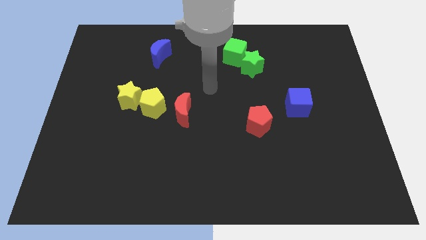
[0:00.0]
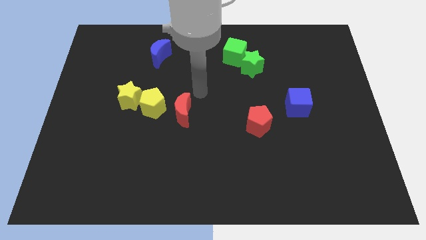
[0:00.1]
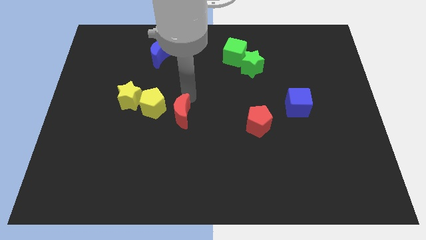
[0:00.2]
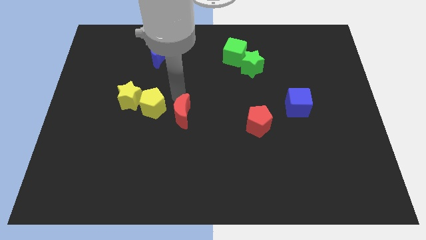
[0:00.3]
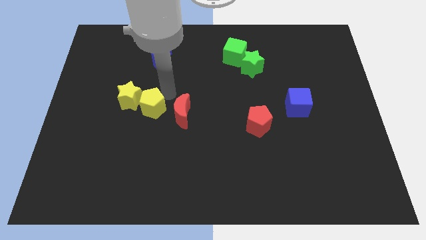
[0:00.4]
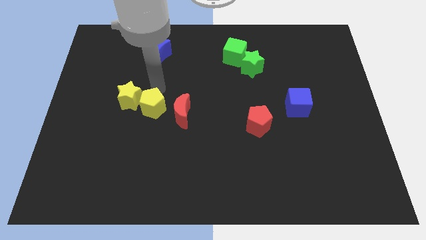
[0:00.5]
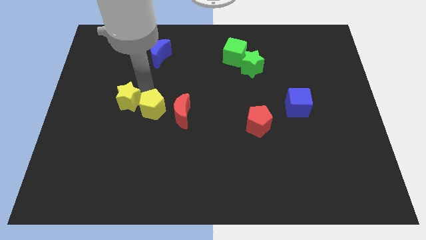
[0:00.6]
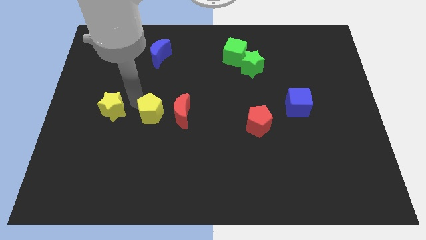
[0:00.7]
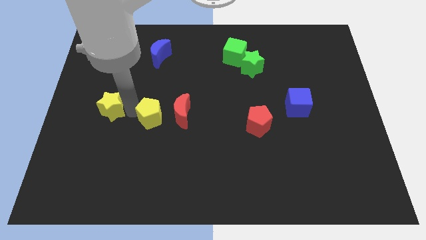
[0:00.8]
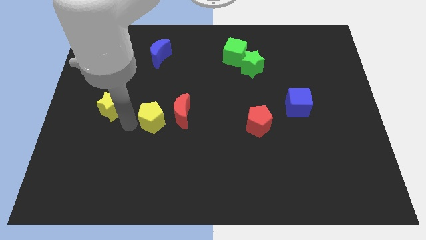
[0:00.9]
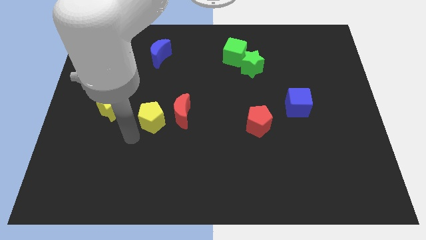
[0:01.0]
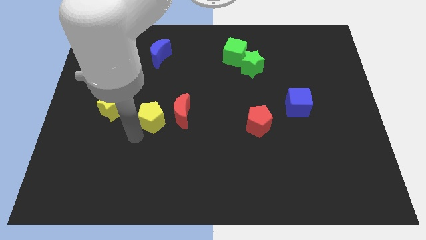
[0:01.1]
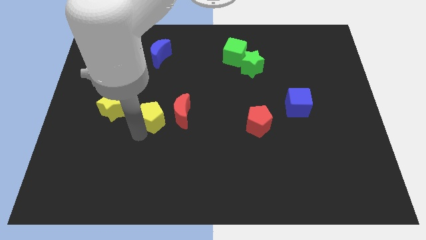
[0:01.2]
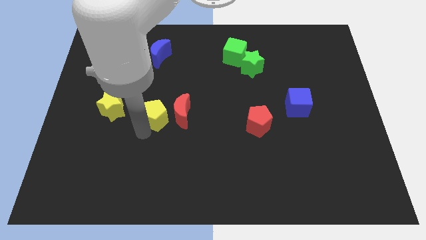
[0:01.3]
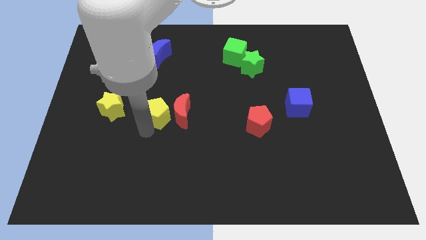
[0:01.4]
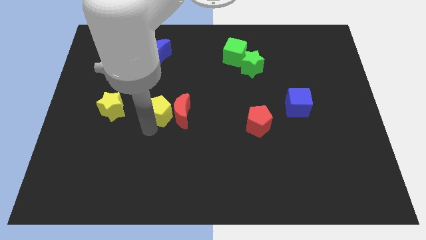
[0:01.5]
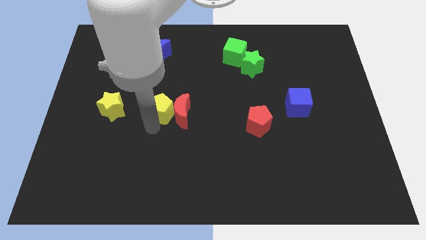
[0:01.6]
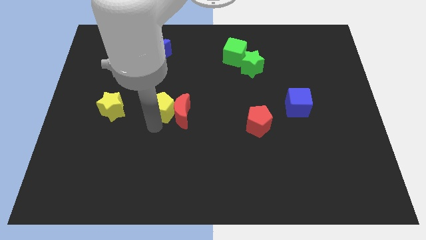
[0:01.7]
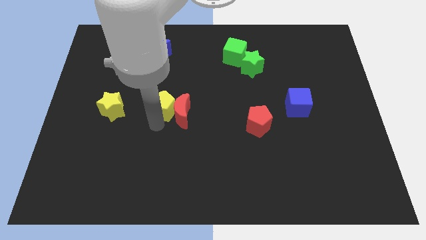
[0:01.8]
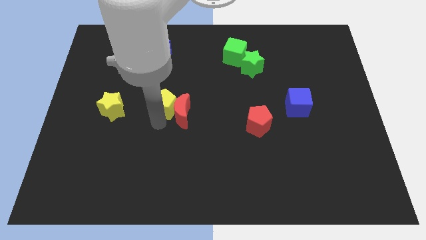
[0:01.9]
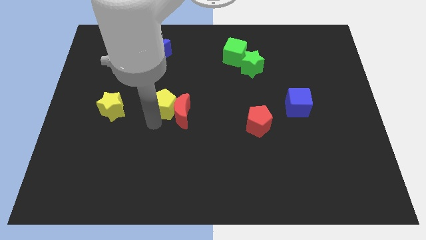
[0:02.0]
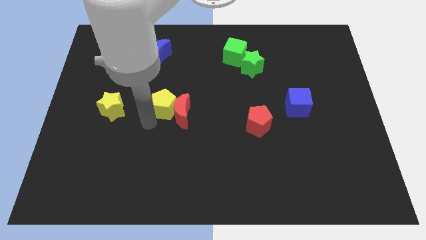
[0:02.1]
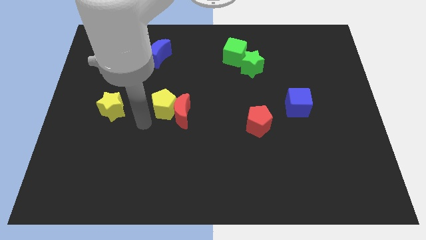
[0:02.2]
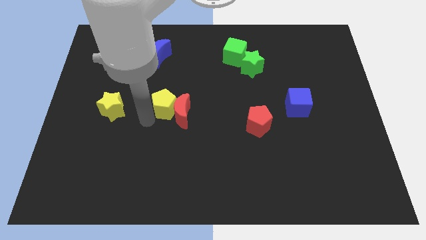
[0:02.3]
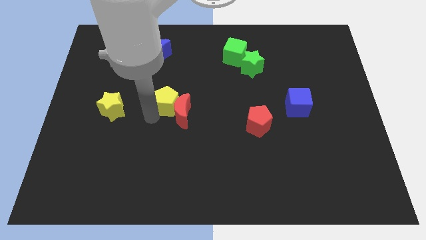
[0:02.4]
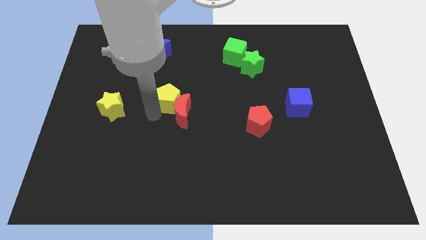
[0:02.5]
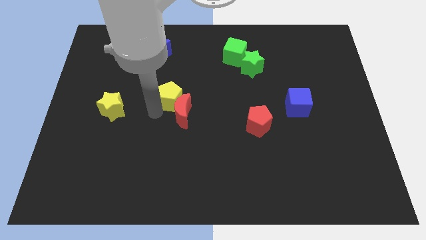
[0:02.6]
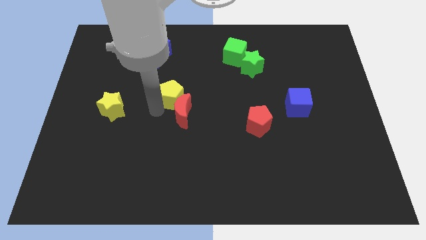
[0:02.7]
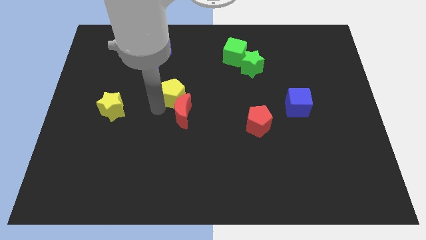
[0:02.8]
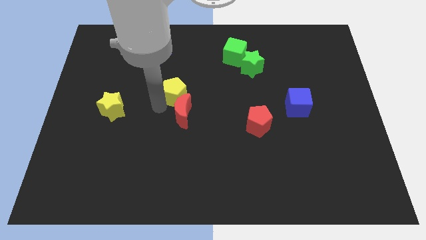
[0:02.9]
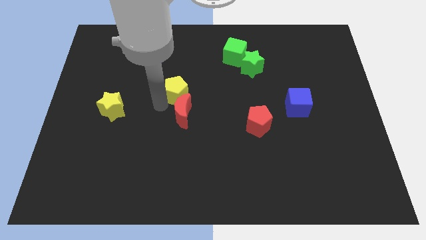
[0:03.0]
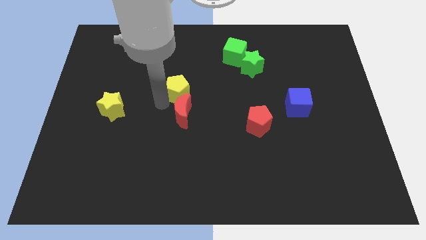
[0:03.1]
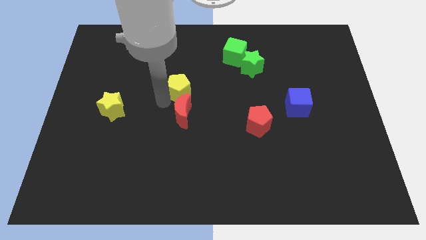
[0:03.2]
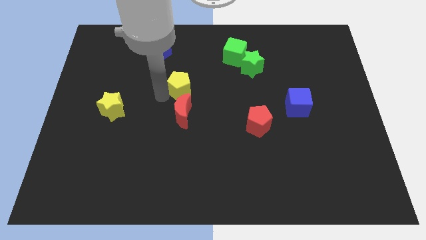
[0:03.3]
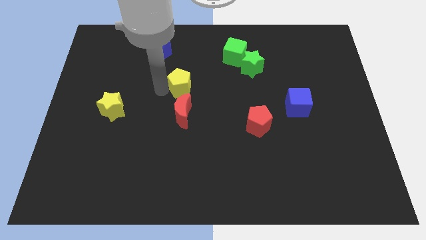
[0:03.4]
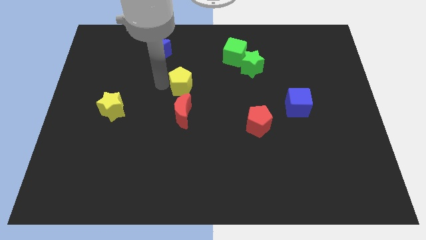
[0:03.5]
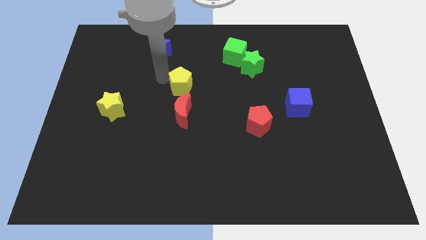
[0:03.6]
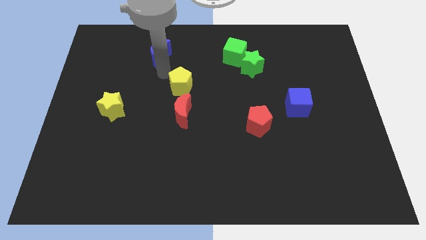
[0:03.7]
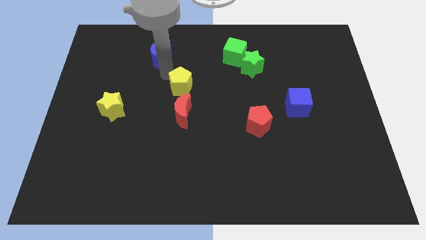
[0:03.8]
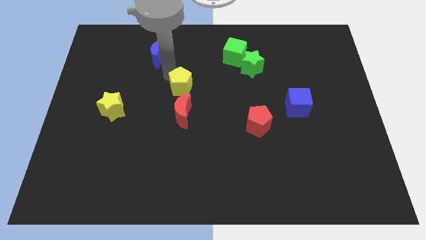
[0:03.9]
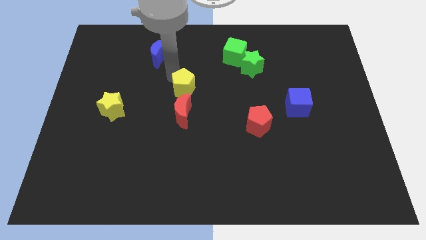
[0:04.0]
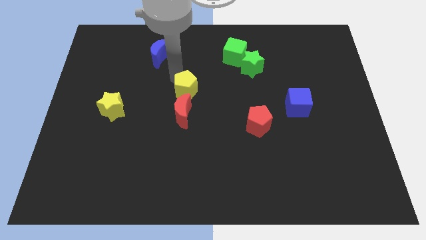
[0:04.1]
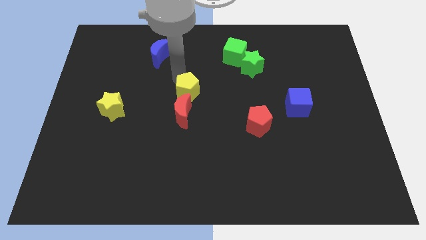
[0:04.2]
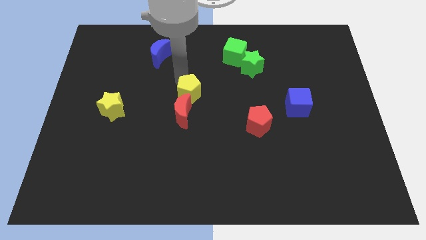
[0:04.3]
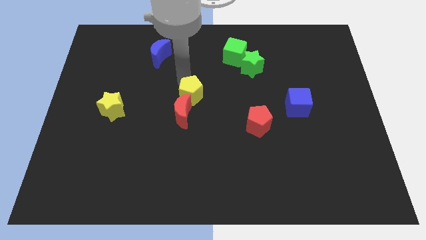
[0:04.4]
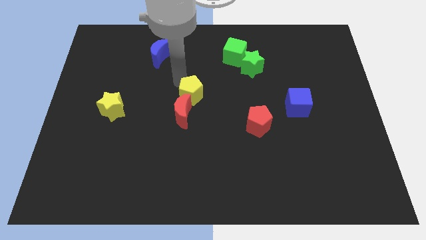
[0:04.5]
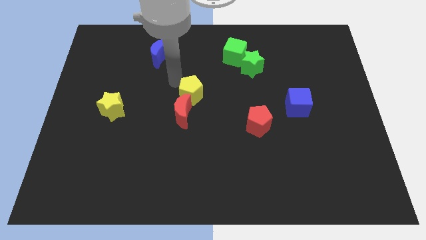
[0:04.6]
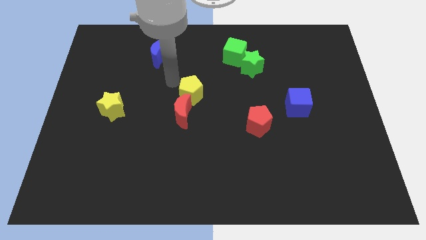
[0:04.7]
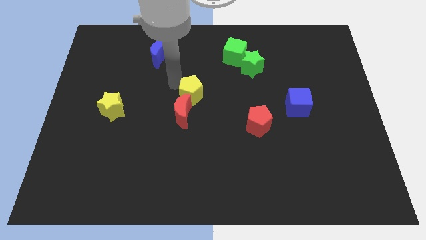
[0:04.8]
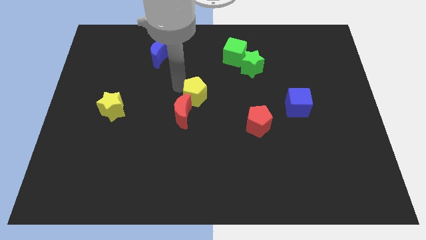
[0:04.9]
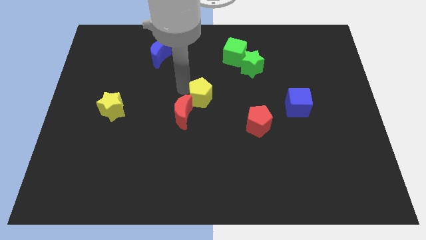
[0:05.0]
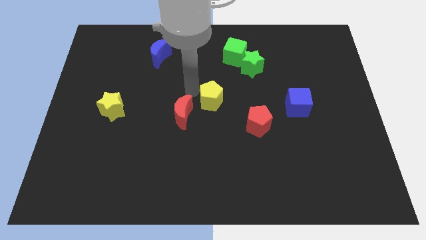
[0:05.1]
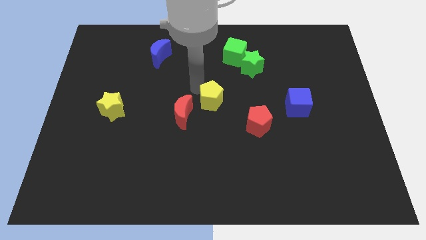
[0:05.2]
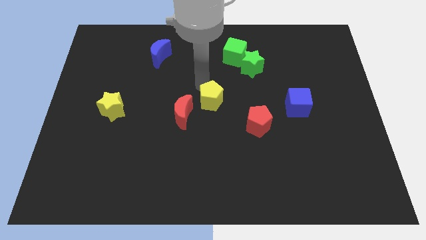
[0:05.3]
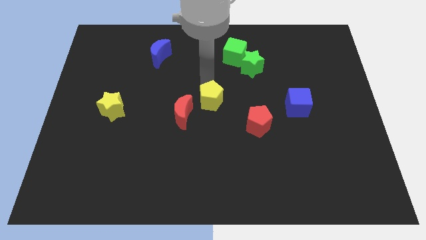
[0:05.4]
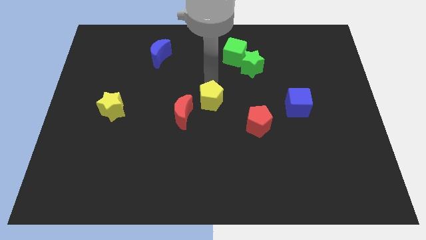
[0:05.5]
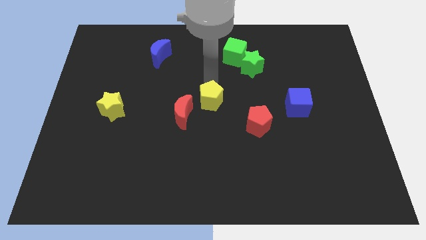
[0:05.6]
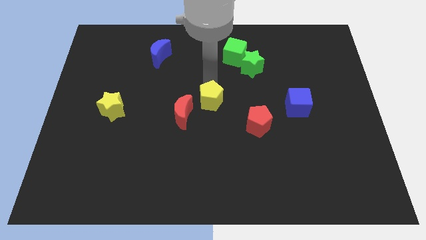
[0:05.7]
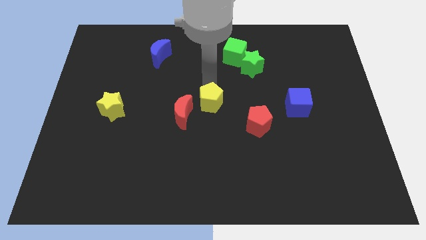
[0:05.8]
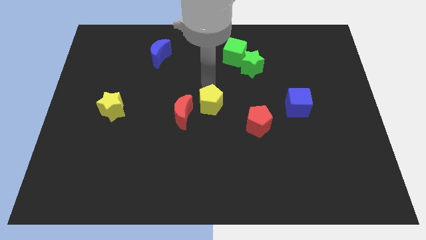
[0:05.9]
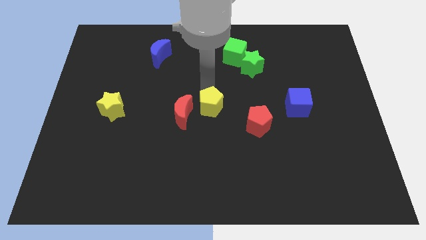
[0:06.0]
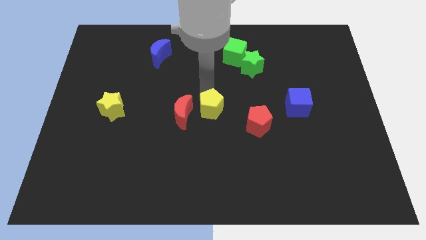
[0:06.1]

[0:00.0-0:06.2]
put the yellow pentagon to the left of the red pentagon
